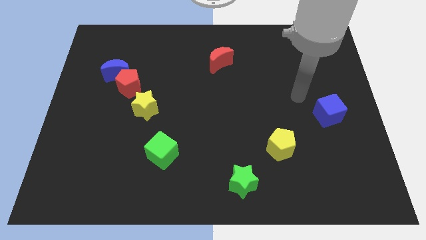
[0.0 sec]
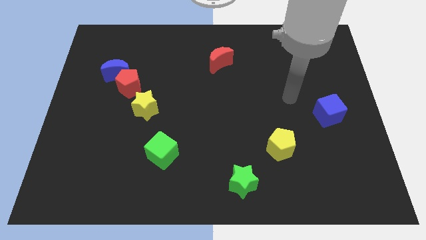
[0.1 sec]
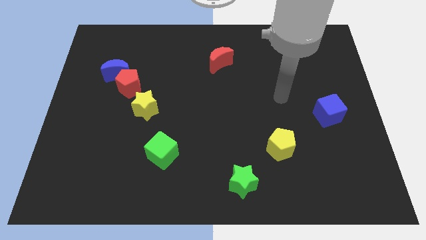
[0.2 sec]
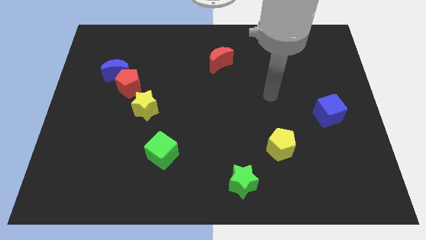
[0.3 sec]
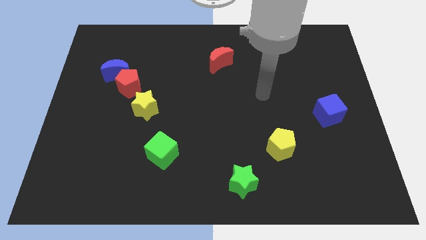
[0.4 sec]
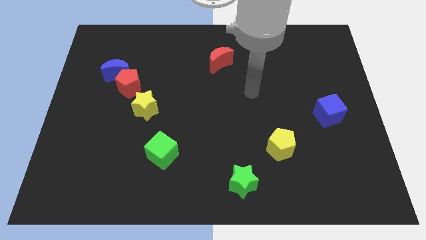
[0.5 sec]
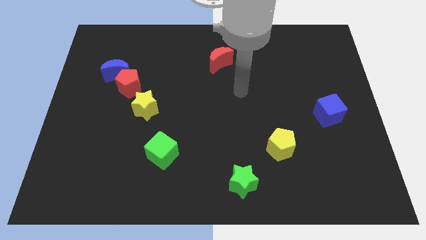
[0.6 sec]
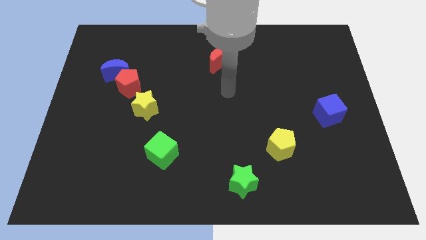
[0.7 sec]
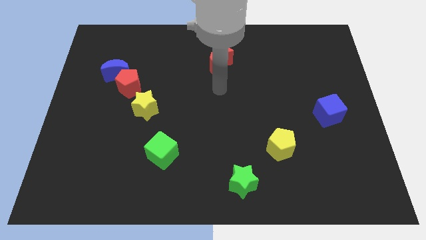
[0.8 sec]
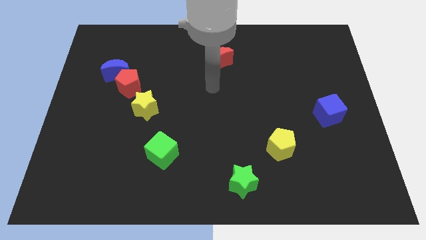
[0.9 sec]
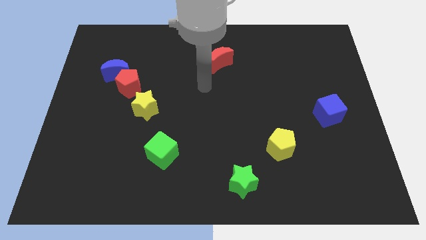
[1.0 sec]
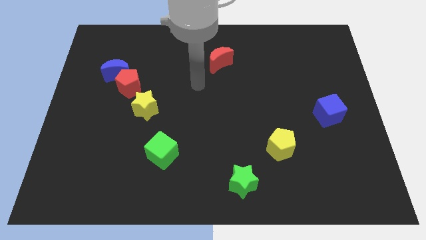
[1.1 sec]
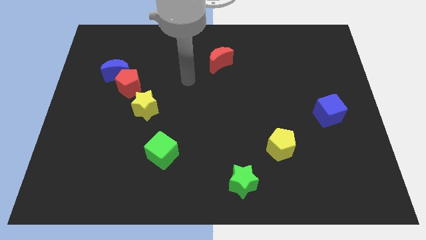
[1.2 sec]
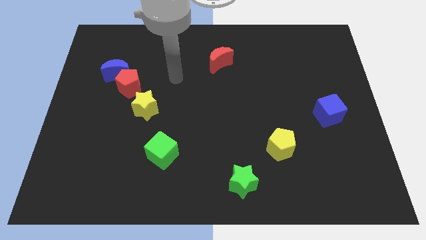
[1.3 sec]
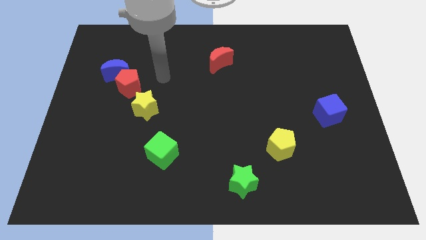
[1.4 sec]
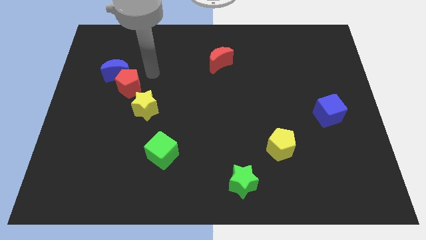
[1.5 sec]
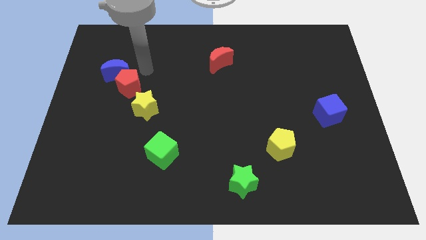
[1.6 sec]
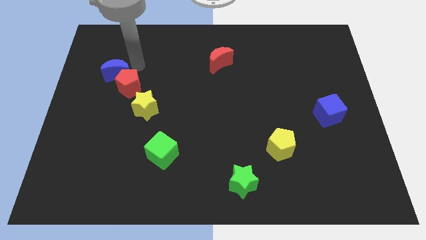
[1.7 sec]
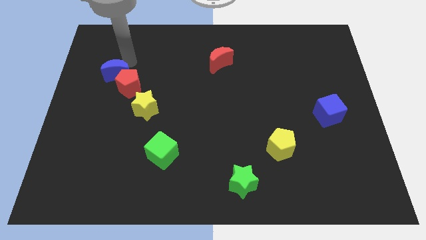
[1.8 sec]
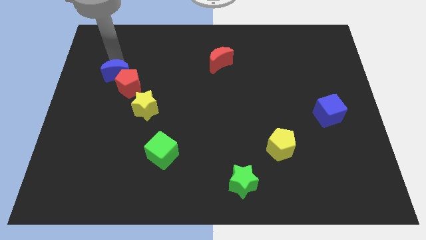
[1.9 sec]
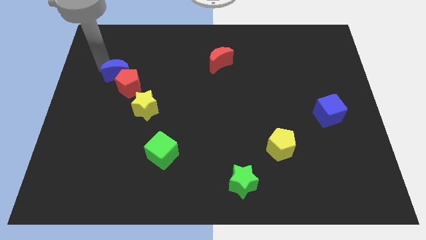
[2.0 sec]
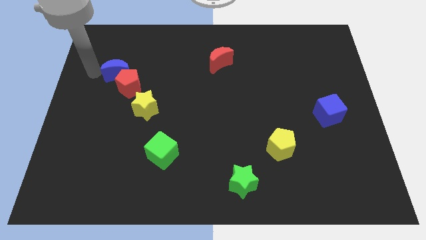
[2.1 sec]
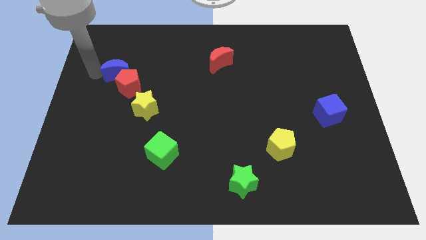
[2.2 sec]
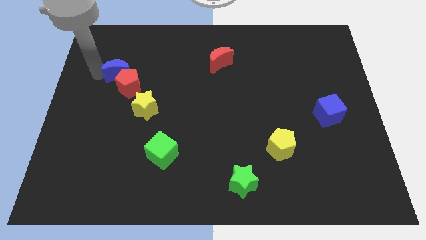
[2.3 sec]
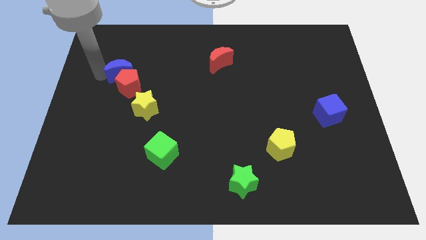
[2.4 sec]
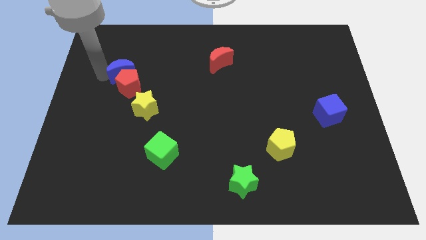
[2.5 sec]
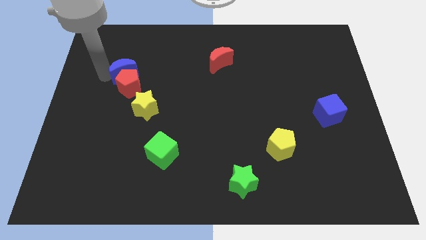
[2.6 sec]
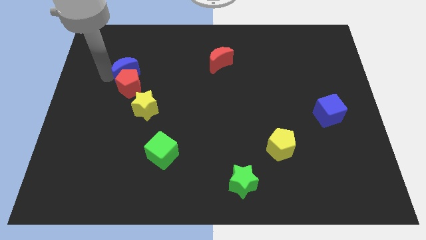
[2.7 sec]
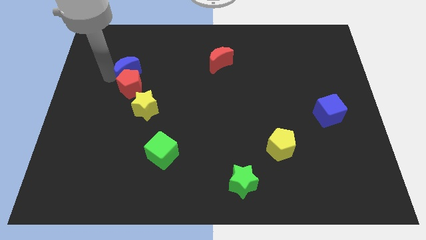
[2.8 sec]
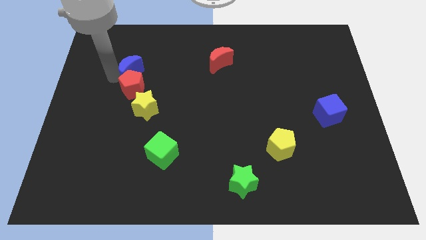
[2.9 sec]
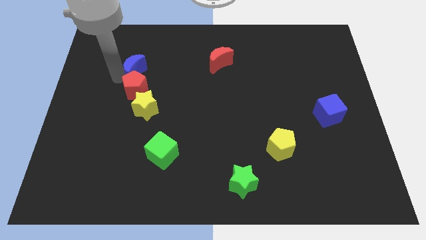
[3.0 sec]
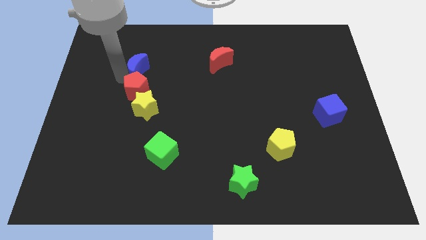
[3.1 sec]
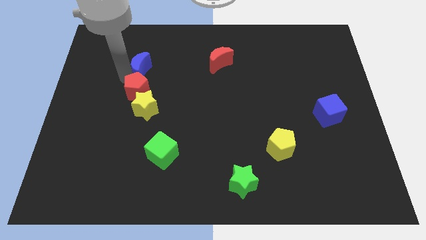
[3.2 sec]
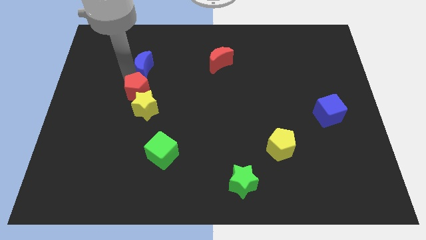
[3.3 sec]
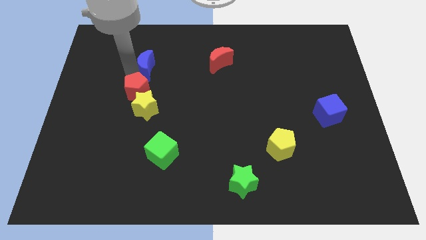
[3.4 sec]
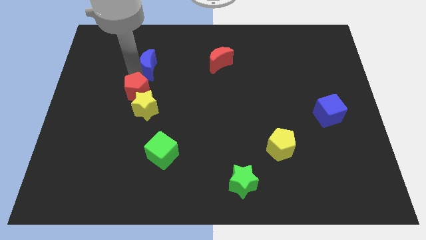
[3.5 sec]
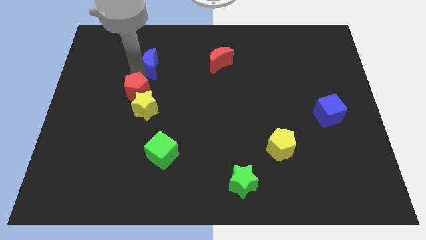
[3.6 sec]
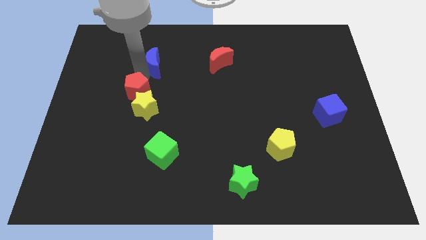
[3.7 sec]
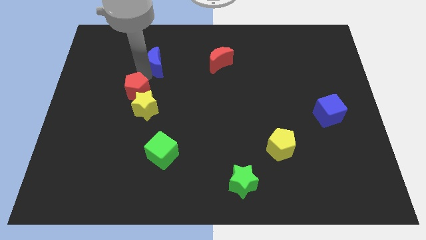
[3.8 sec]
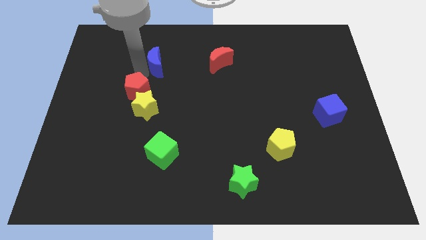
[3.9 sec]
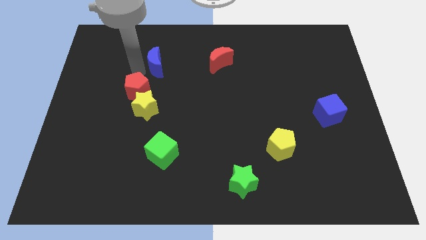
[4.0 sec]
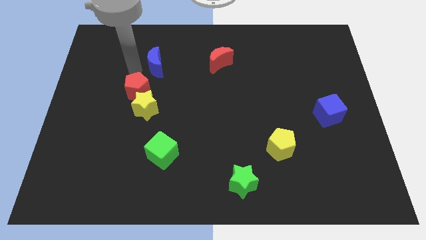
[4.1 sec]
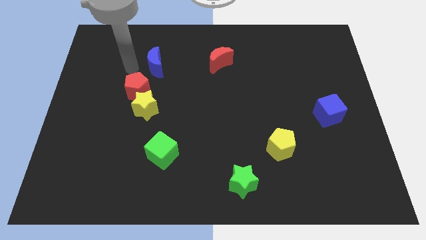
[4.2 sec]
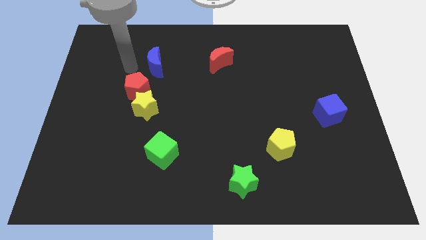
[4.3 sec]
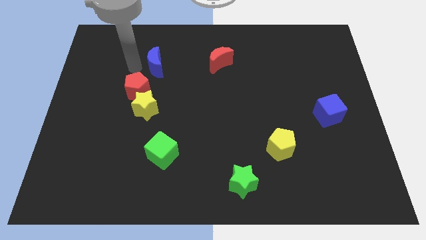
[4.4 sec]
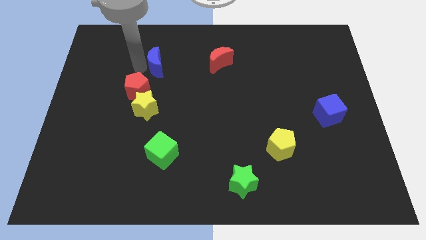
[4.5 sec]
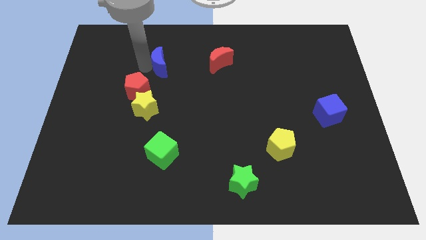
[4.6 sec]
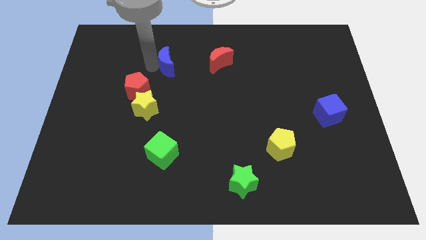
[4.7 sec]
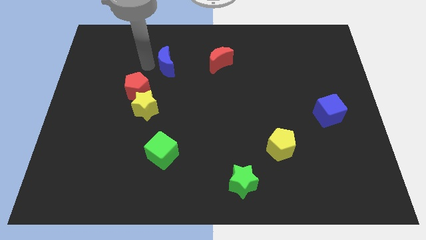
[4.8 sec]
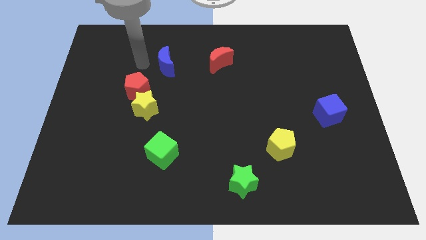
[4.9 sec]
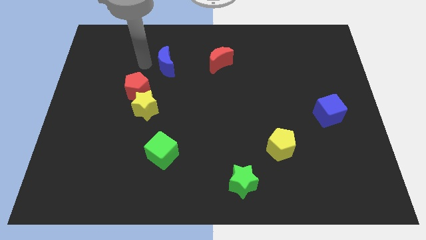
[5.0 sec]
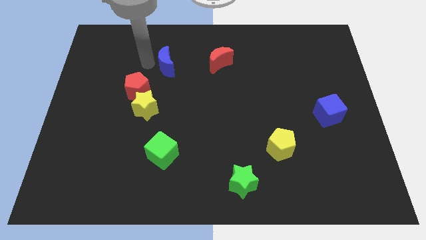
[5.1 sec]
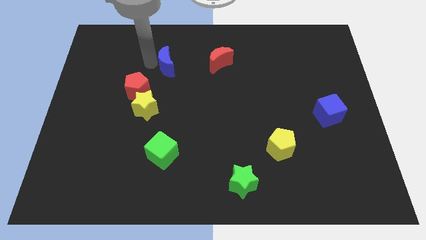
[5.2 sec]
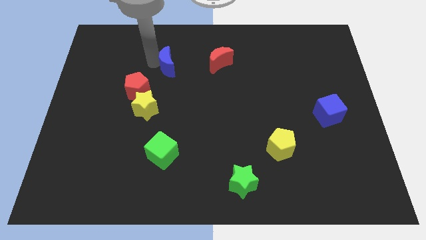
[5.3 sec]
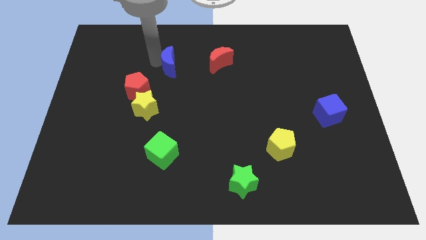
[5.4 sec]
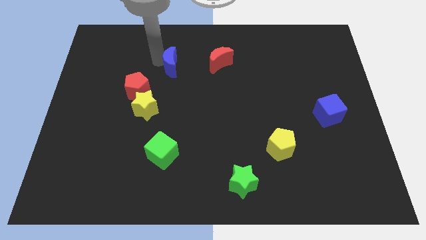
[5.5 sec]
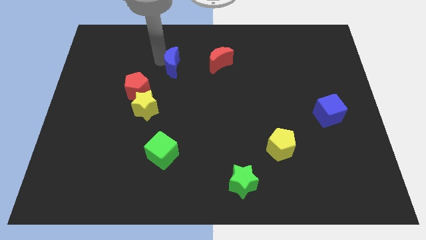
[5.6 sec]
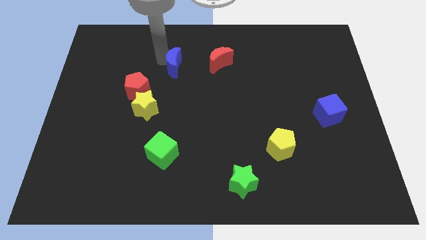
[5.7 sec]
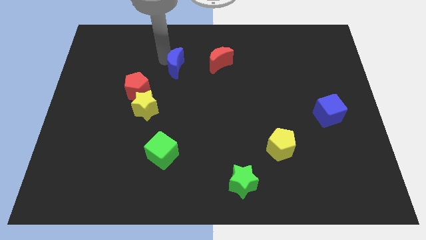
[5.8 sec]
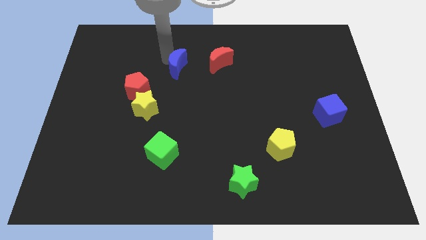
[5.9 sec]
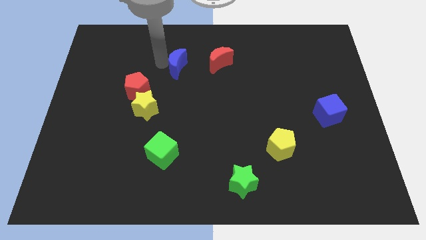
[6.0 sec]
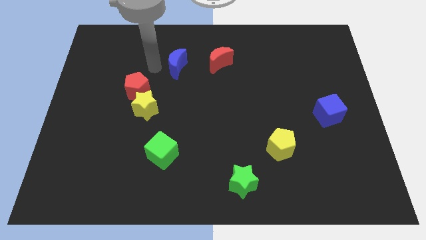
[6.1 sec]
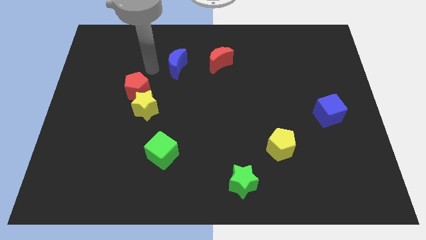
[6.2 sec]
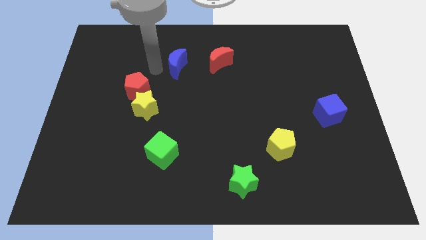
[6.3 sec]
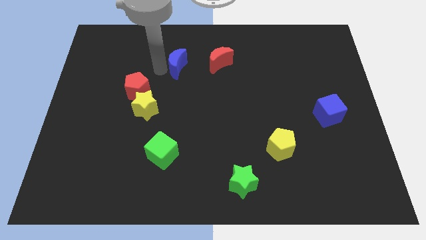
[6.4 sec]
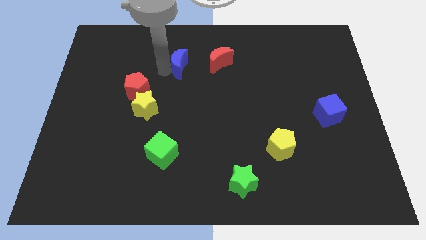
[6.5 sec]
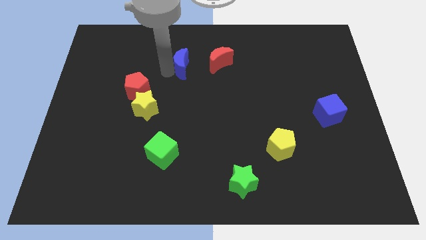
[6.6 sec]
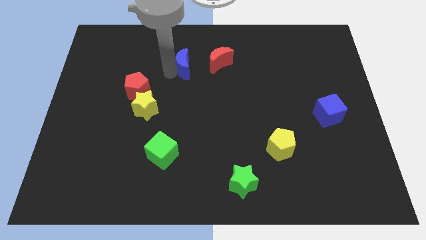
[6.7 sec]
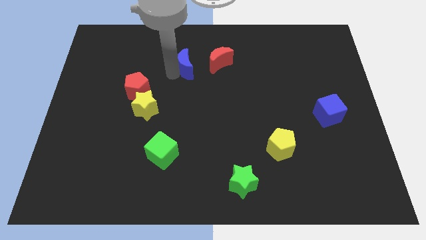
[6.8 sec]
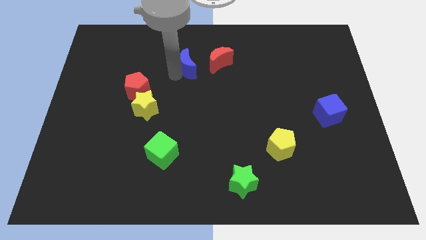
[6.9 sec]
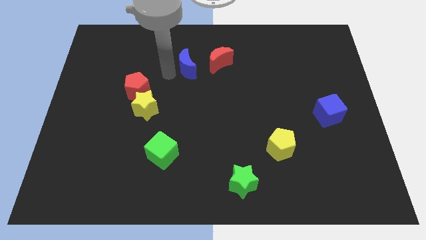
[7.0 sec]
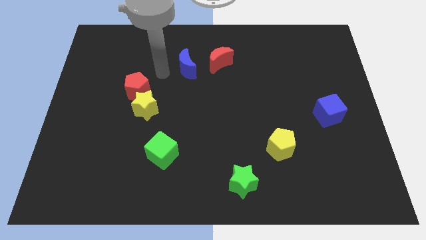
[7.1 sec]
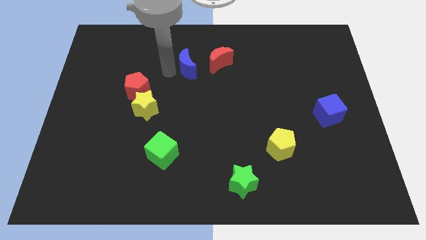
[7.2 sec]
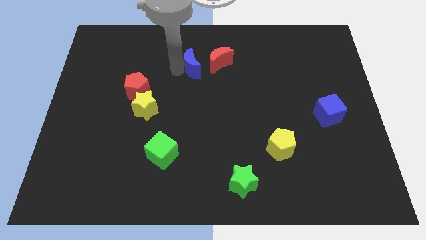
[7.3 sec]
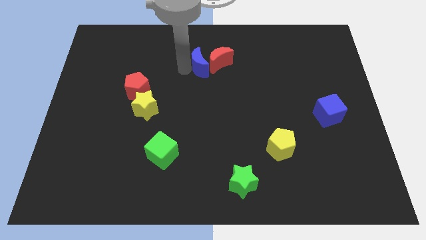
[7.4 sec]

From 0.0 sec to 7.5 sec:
put the blue moon to the red moon
